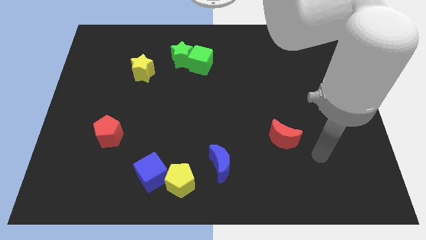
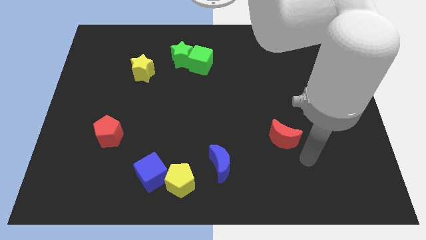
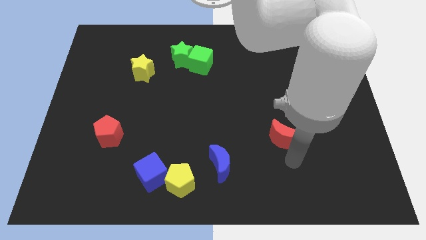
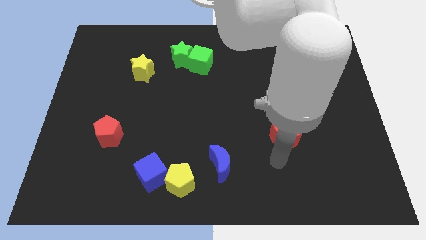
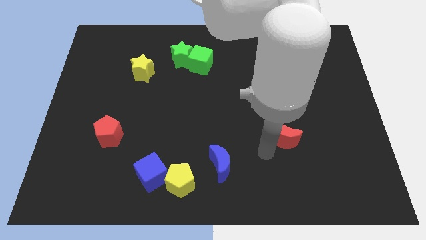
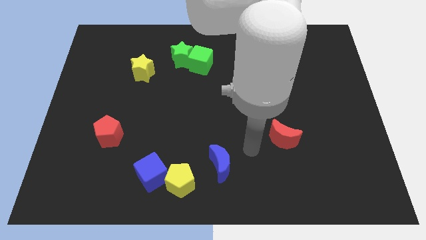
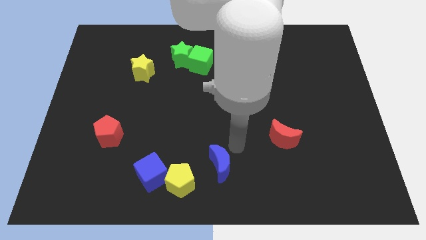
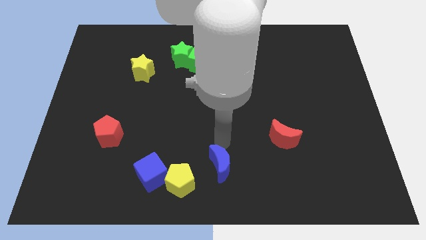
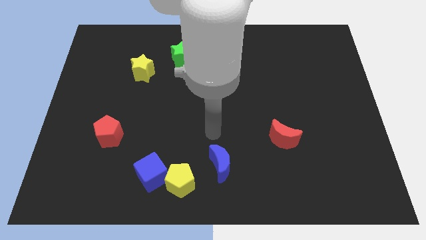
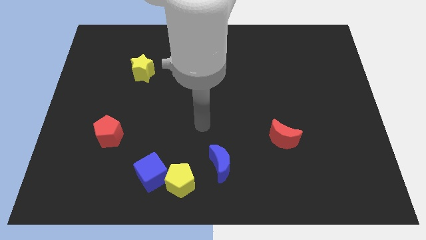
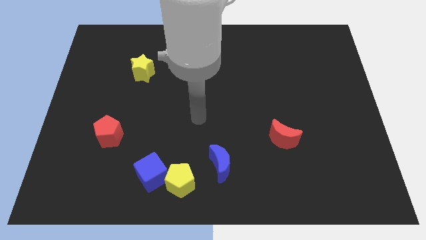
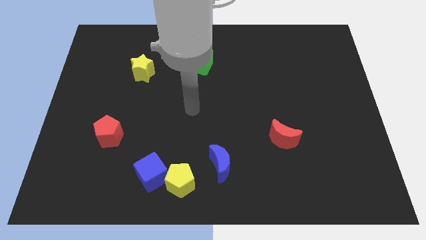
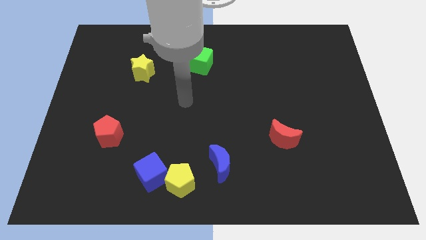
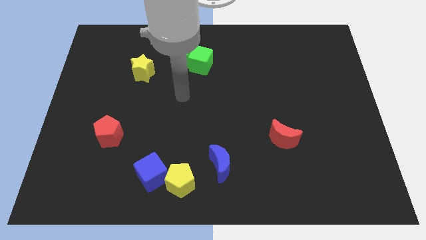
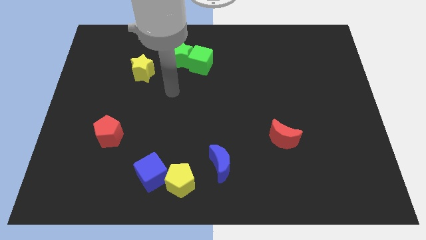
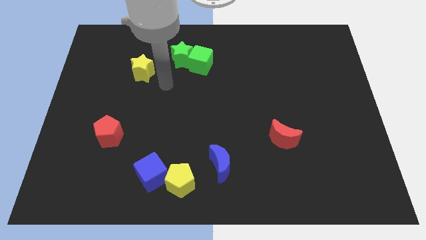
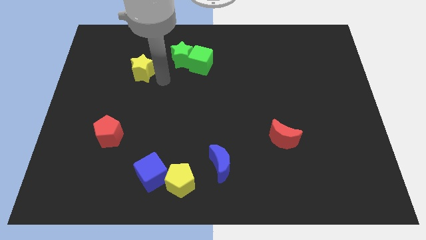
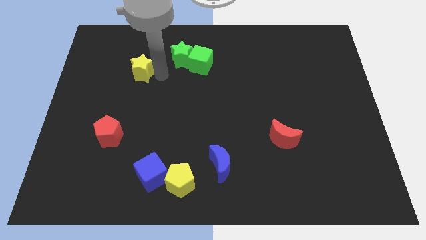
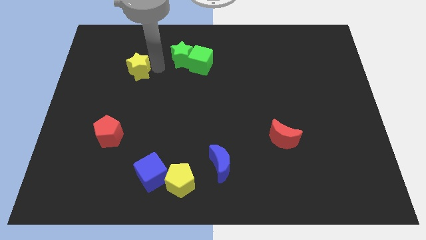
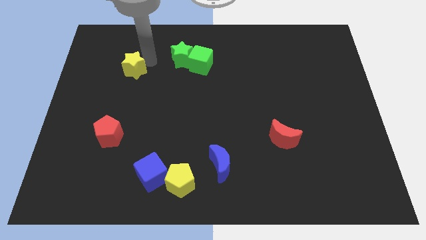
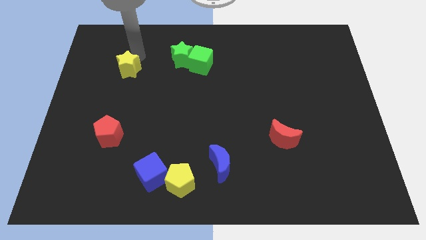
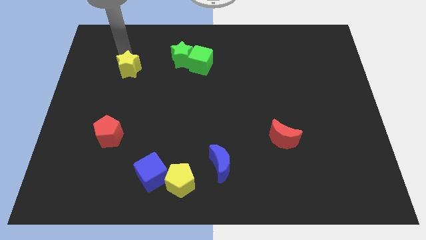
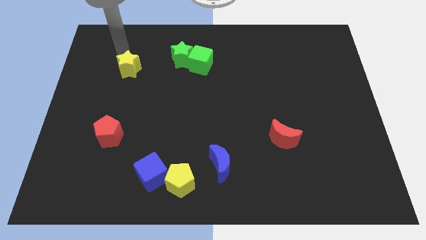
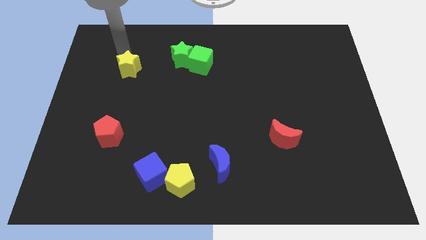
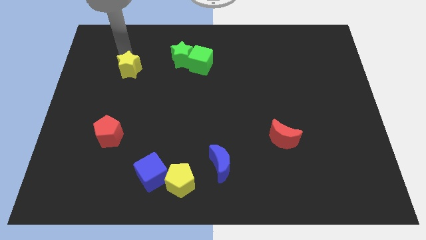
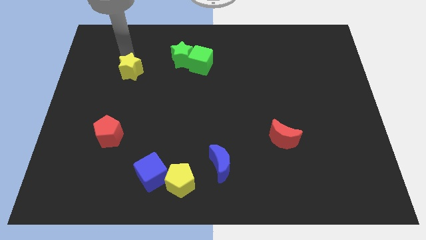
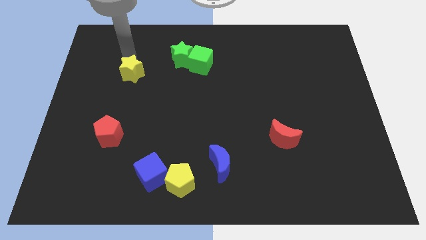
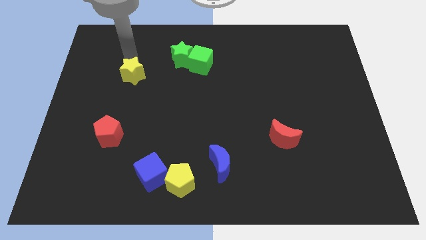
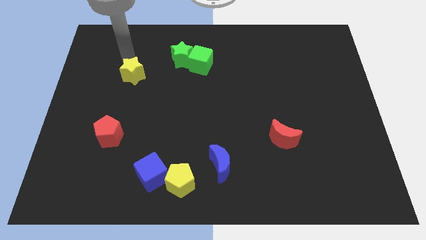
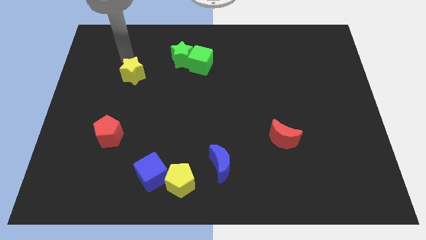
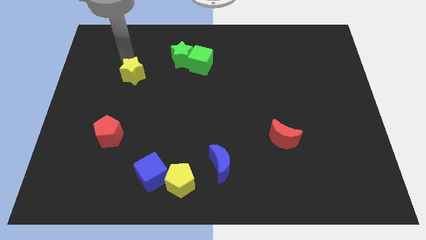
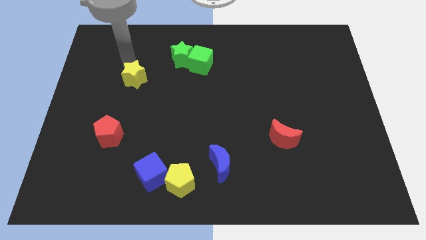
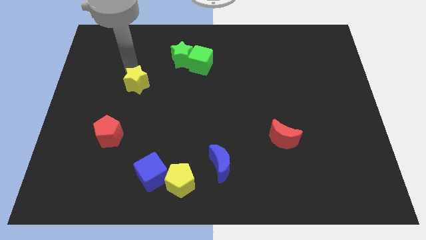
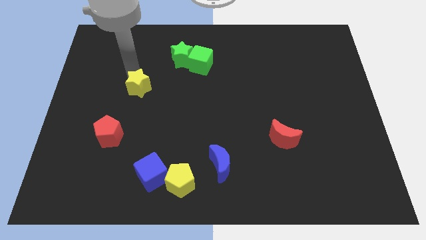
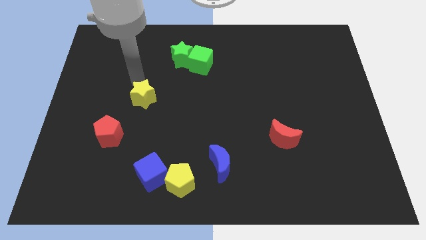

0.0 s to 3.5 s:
move the yellow star down a bit

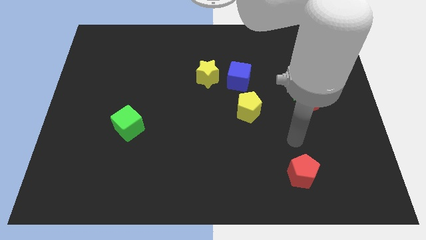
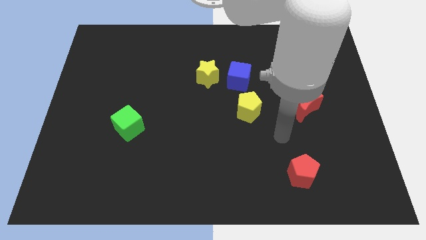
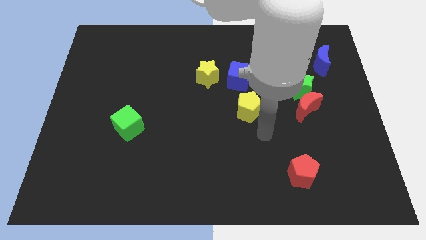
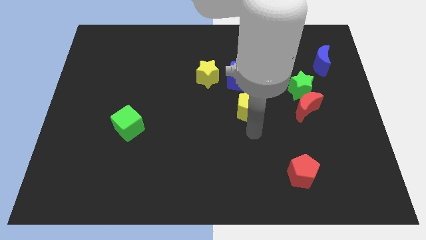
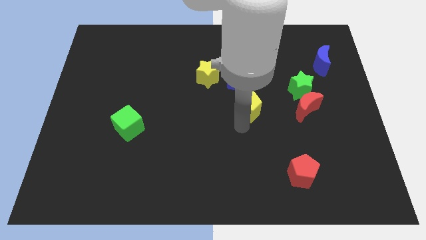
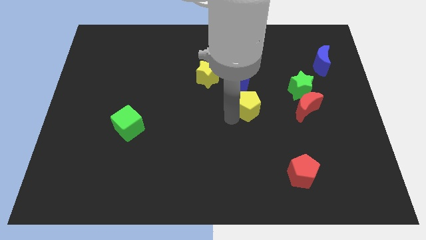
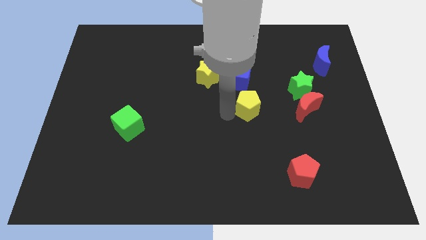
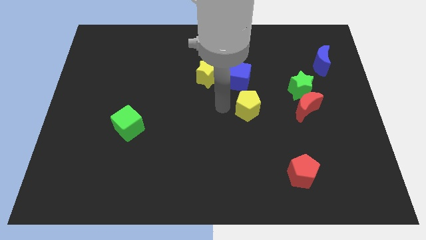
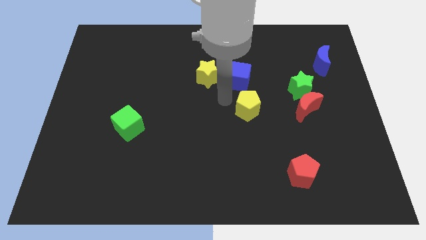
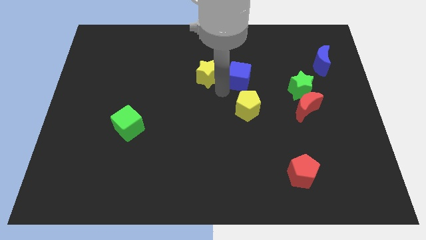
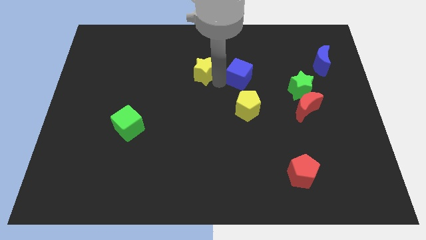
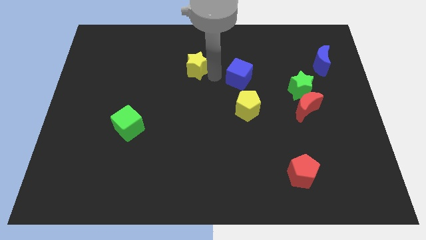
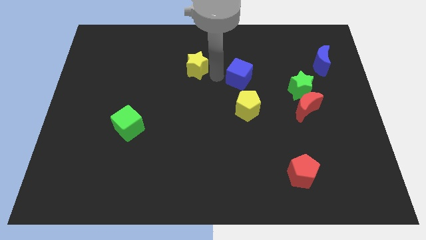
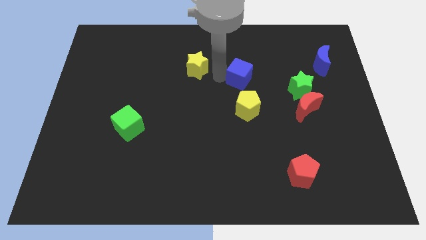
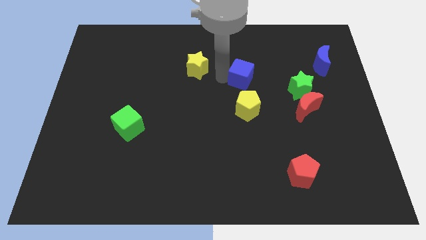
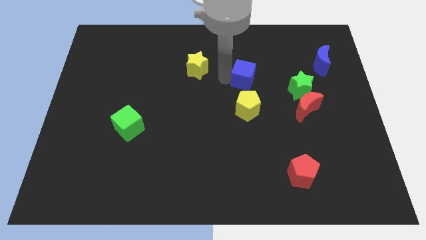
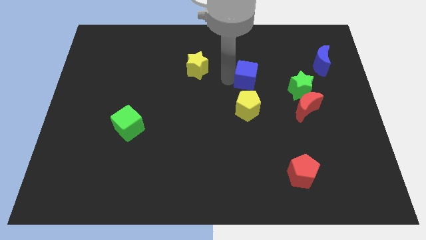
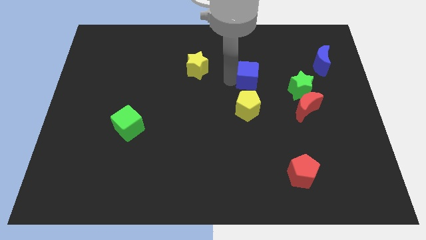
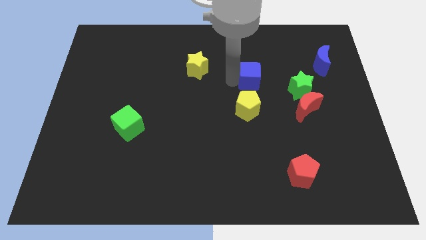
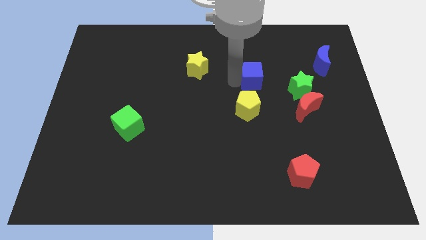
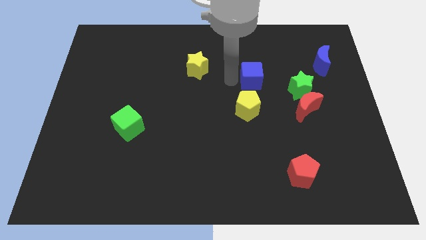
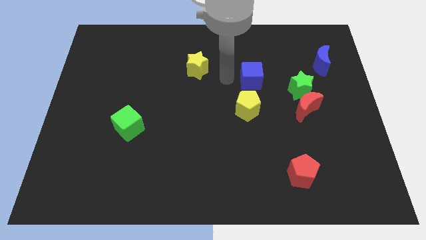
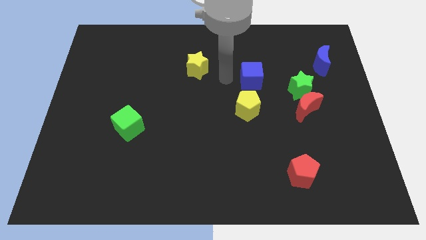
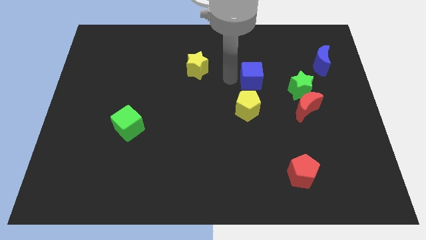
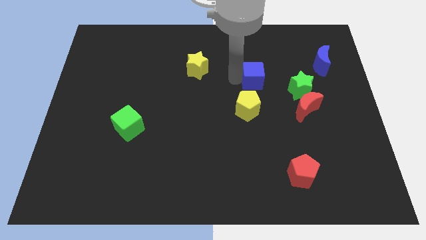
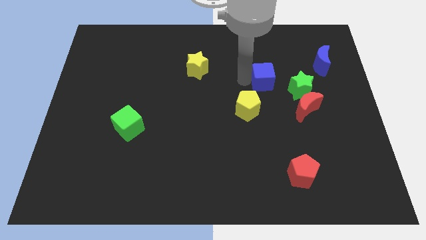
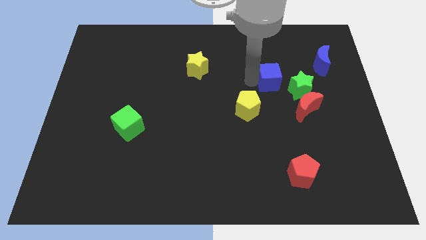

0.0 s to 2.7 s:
slide the blue cube a bit right

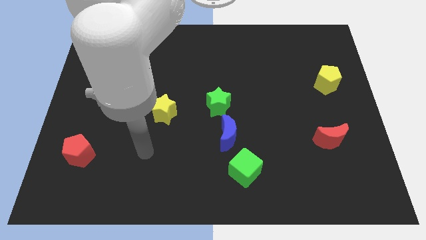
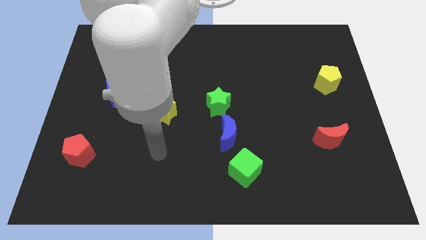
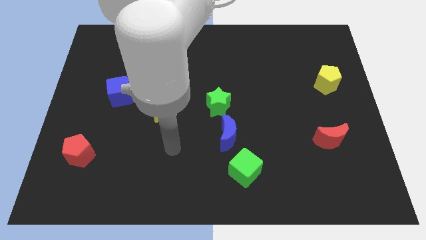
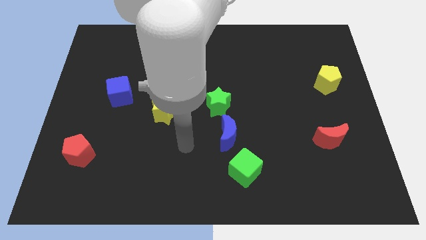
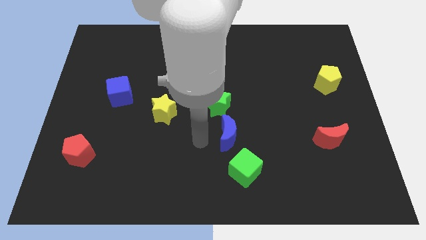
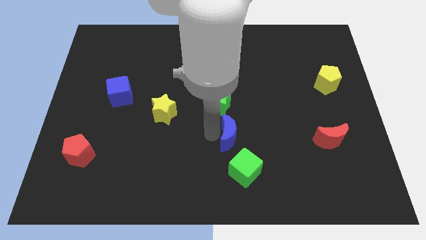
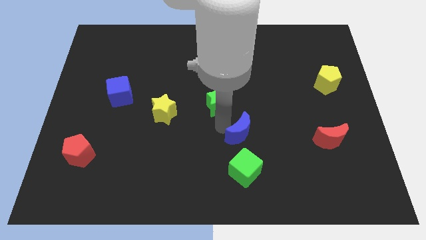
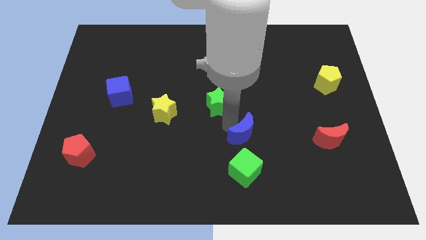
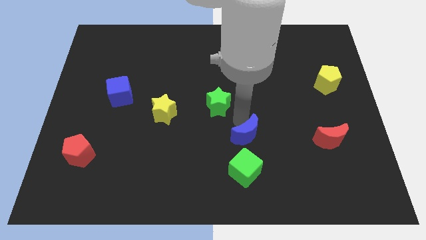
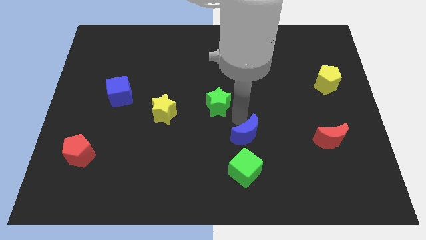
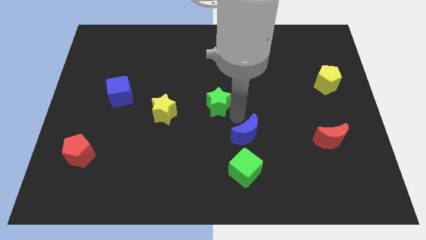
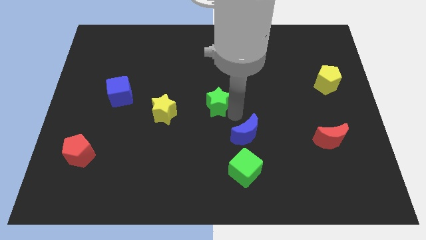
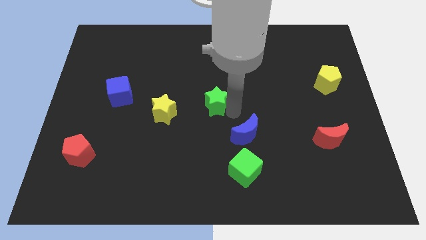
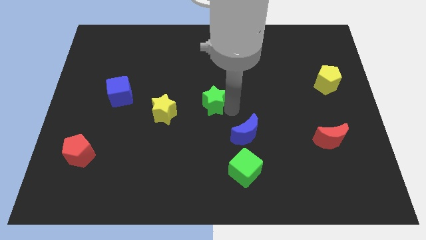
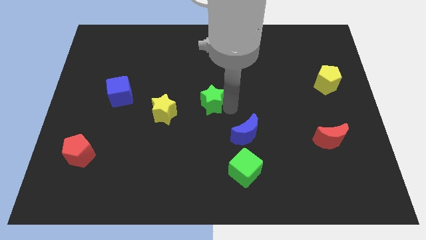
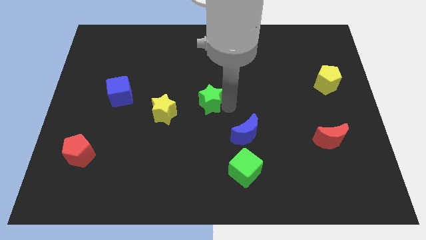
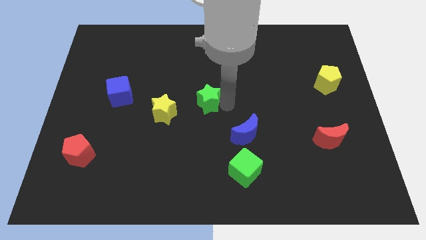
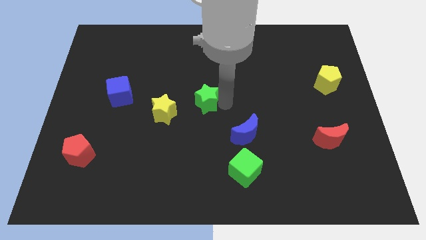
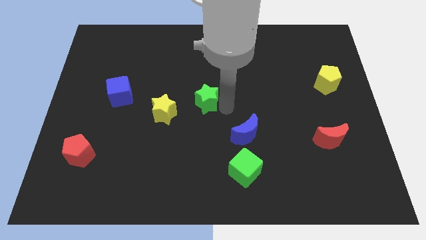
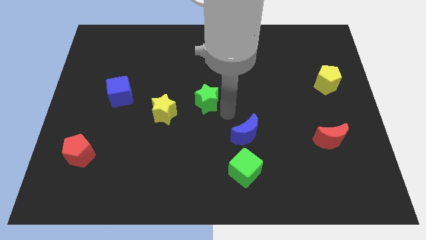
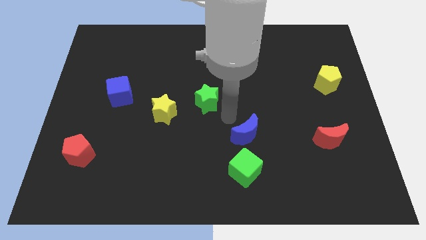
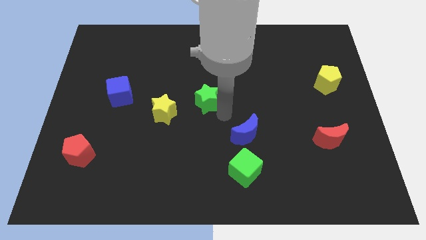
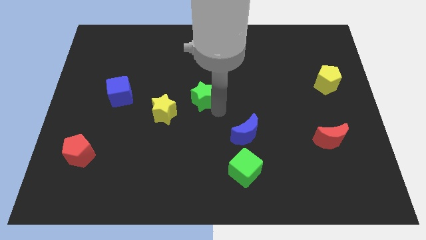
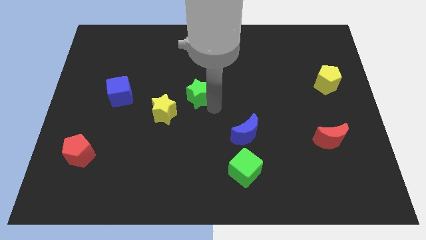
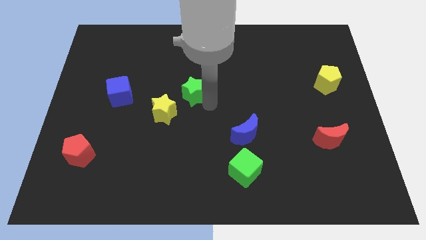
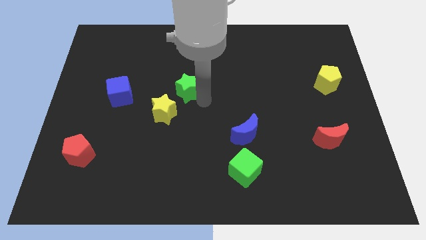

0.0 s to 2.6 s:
slide the green star upwards and then to the left somewhat
